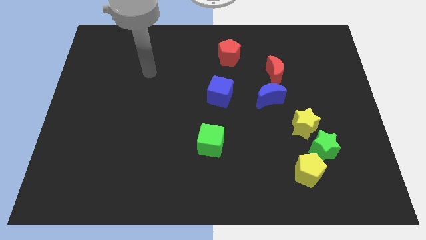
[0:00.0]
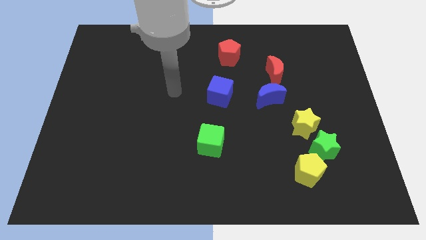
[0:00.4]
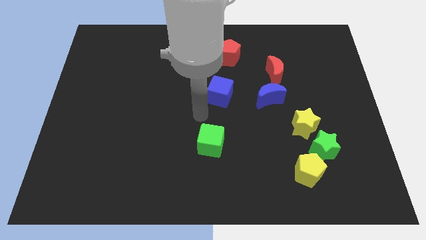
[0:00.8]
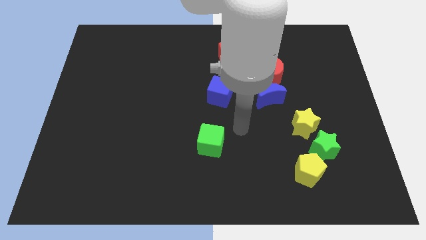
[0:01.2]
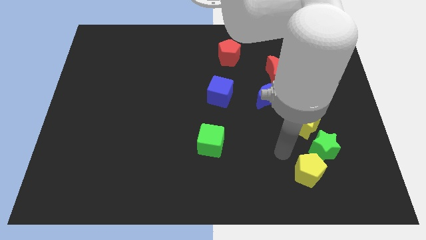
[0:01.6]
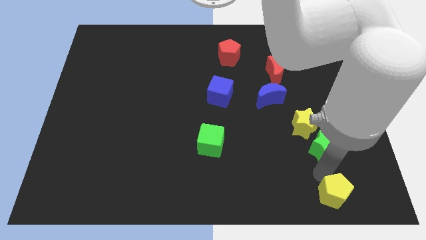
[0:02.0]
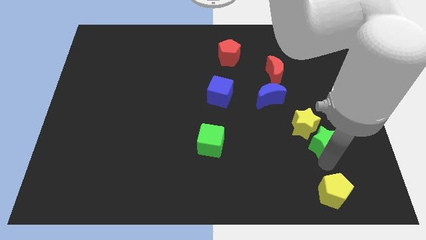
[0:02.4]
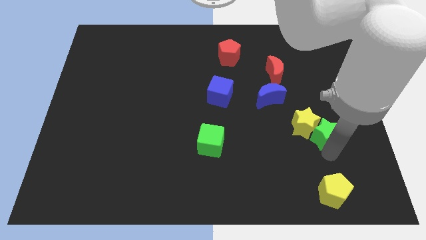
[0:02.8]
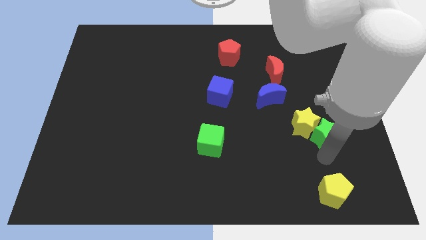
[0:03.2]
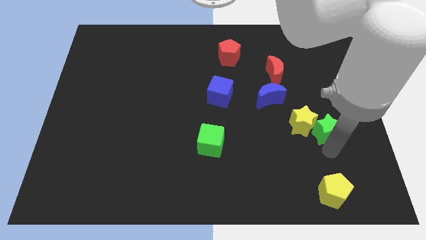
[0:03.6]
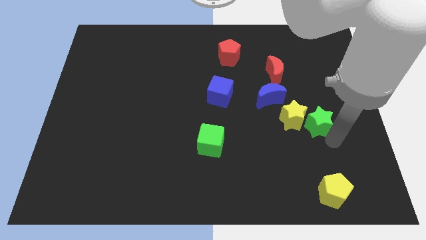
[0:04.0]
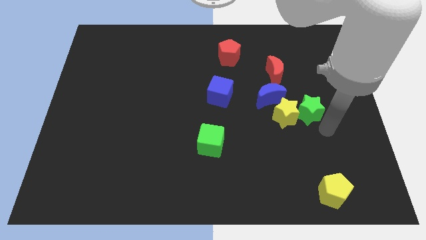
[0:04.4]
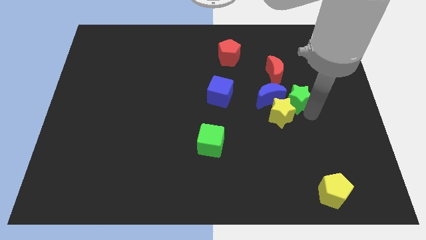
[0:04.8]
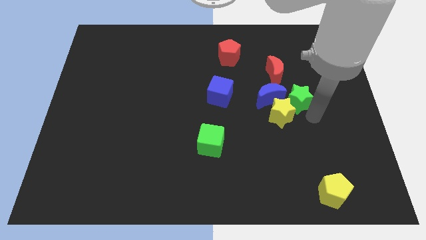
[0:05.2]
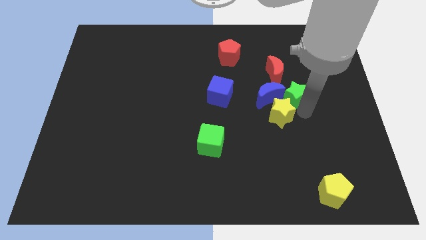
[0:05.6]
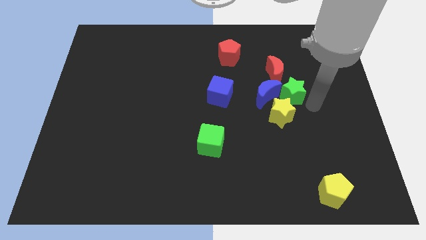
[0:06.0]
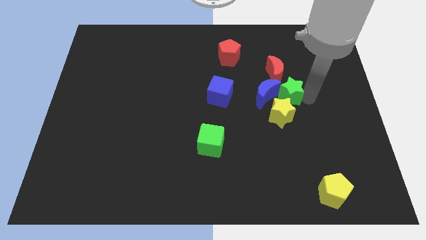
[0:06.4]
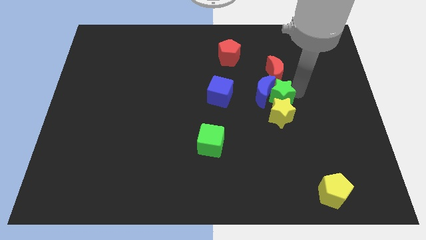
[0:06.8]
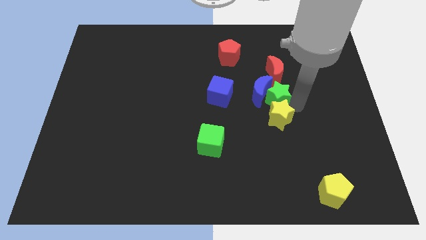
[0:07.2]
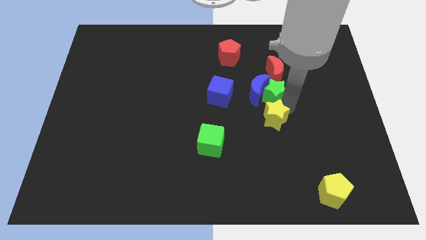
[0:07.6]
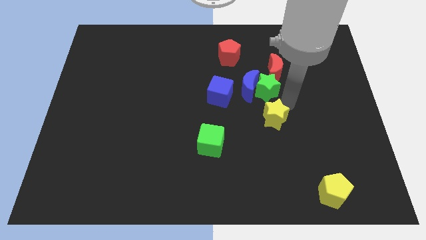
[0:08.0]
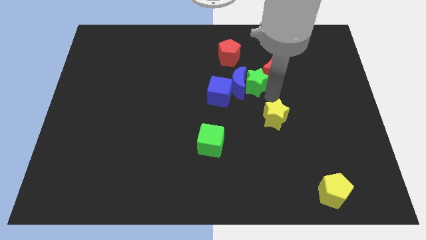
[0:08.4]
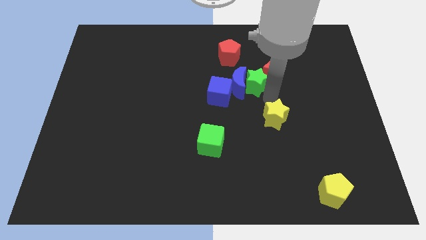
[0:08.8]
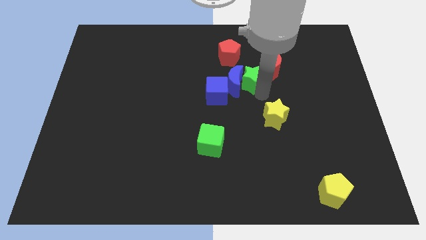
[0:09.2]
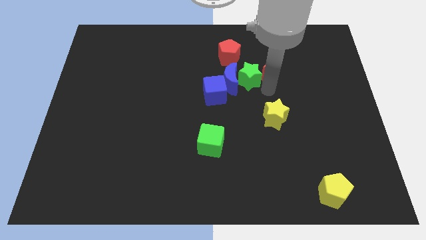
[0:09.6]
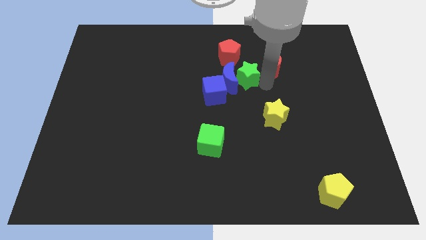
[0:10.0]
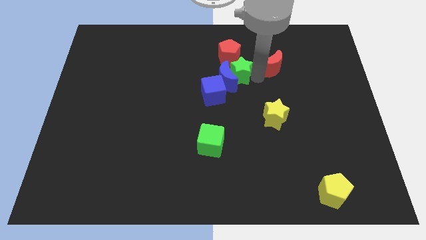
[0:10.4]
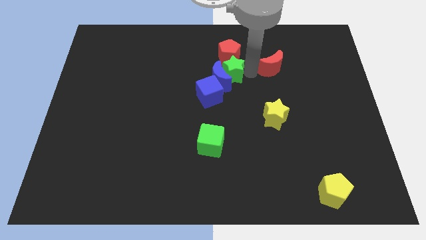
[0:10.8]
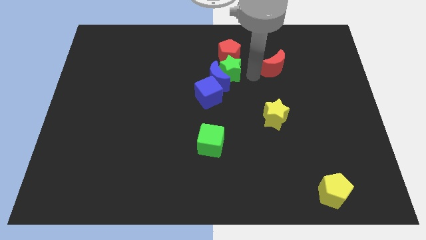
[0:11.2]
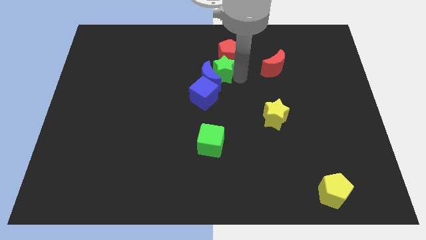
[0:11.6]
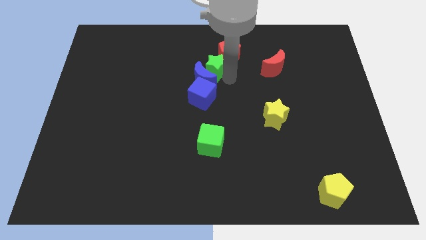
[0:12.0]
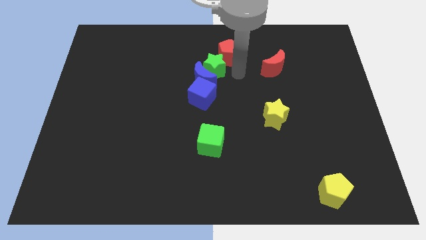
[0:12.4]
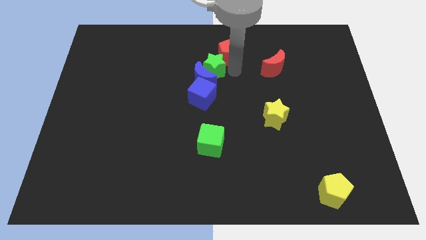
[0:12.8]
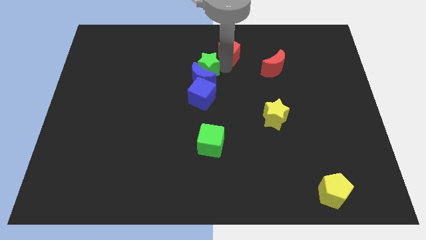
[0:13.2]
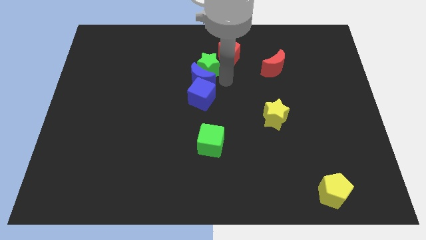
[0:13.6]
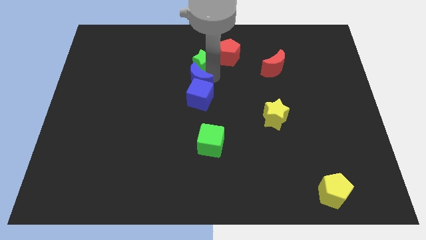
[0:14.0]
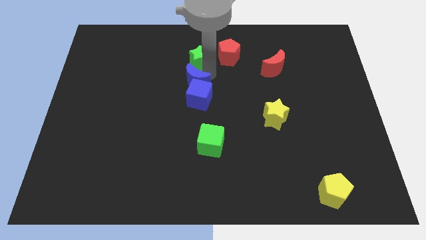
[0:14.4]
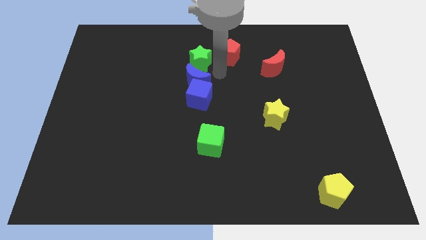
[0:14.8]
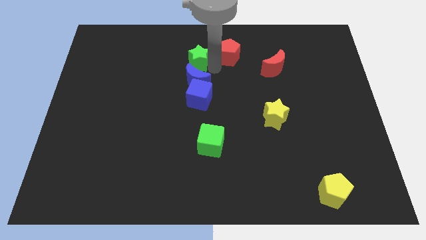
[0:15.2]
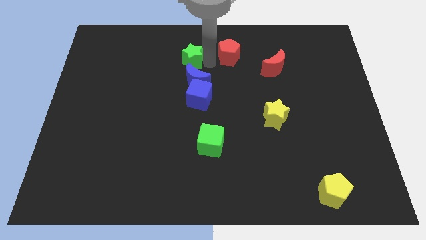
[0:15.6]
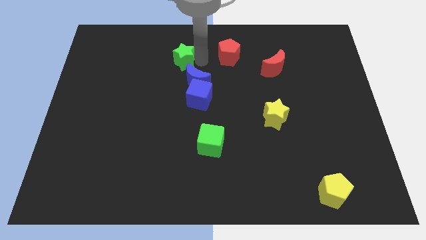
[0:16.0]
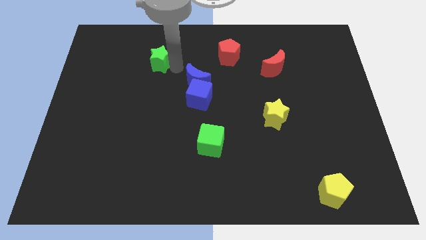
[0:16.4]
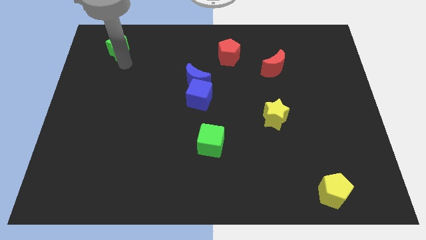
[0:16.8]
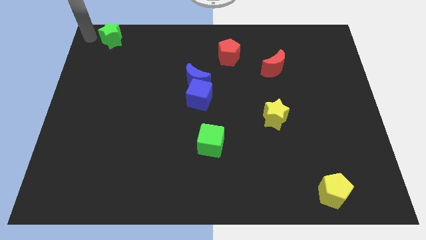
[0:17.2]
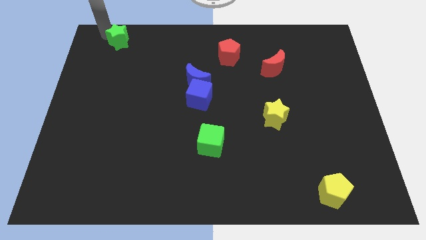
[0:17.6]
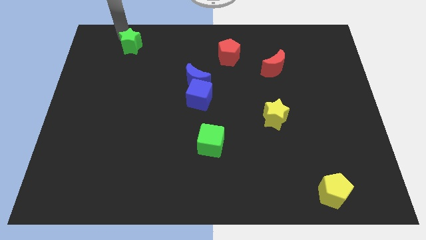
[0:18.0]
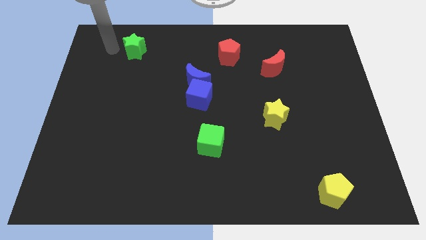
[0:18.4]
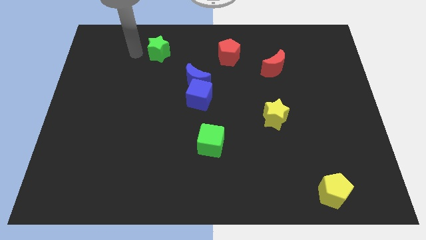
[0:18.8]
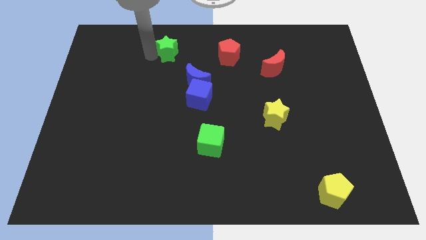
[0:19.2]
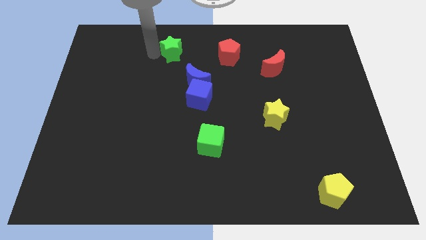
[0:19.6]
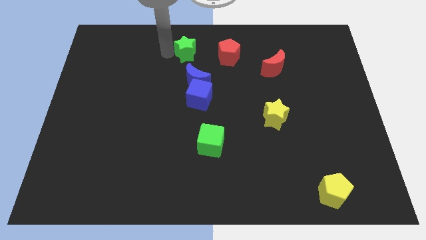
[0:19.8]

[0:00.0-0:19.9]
slide the green star to the top

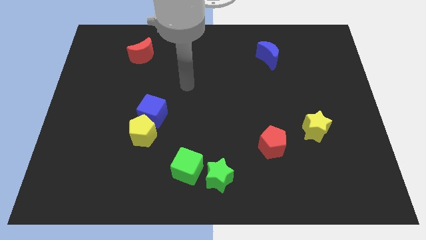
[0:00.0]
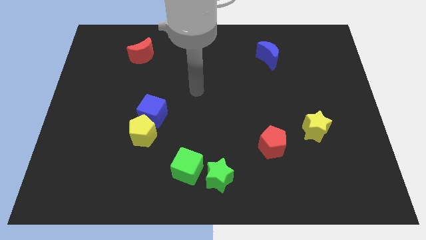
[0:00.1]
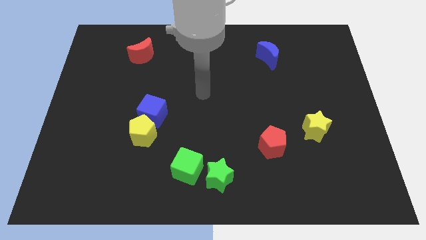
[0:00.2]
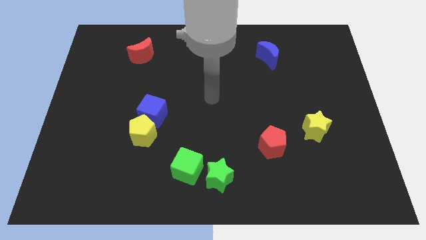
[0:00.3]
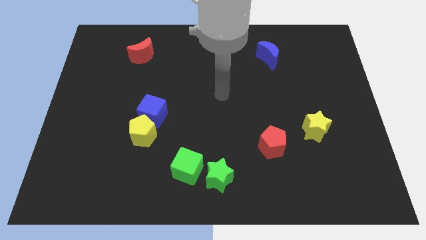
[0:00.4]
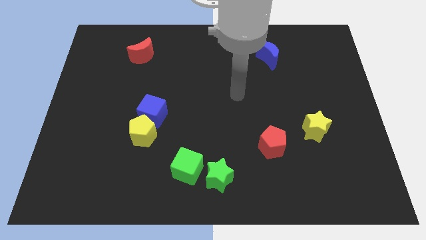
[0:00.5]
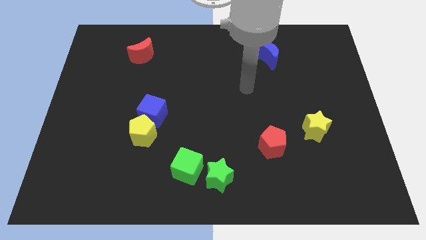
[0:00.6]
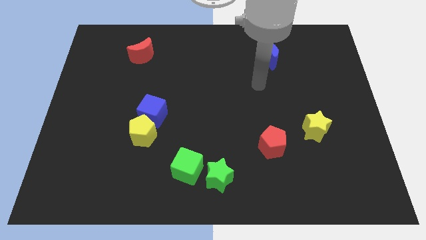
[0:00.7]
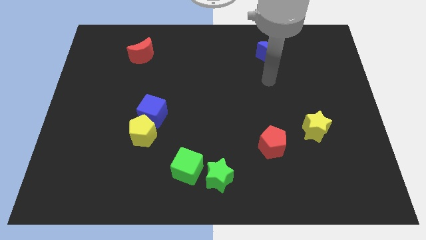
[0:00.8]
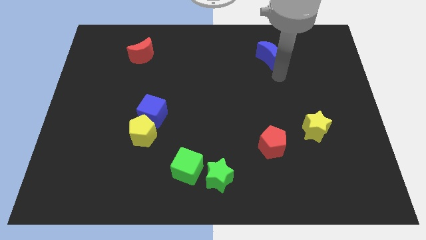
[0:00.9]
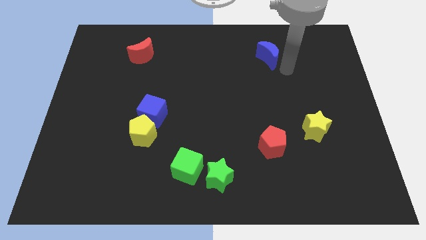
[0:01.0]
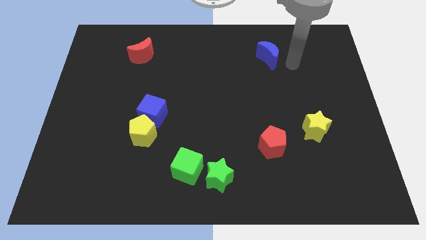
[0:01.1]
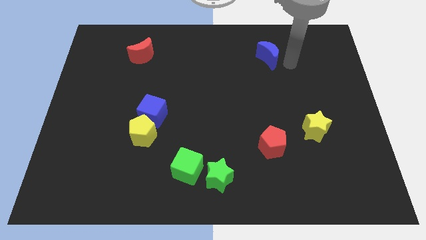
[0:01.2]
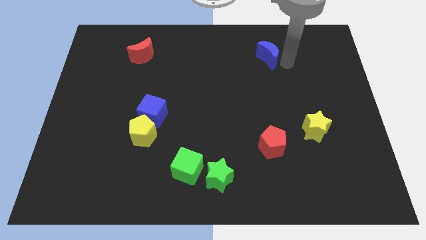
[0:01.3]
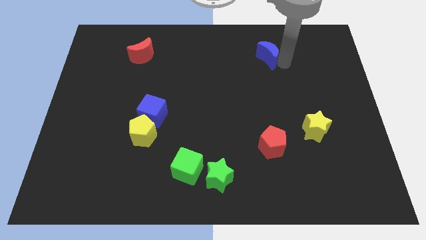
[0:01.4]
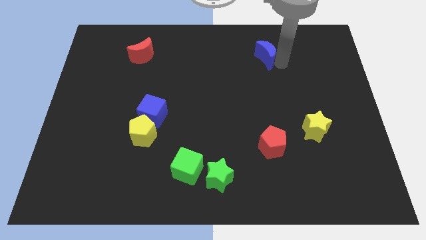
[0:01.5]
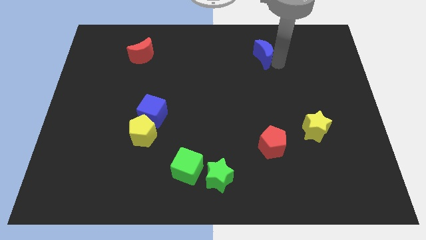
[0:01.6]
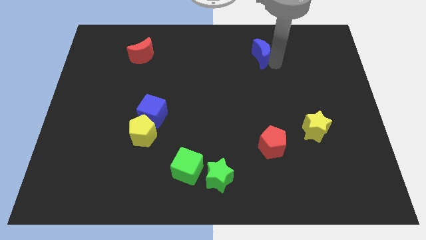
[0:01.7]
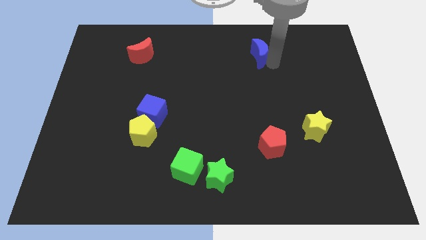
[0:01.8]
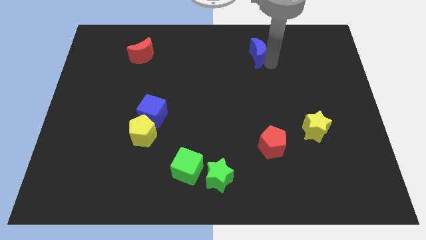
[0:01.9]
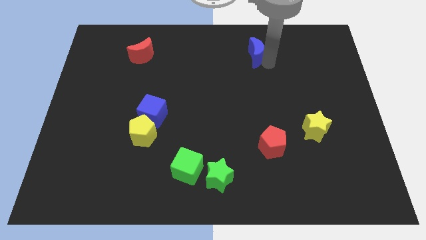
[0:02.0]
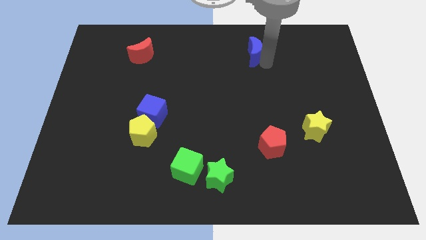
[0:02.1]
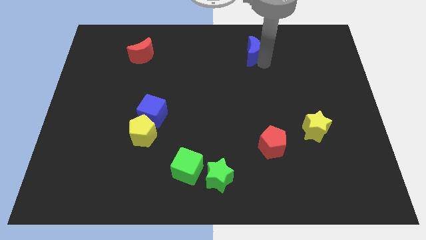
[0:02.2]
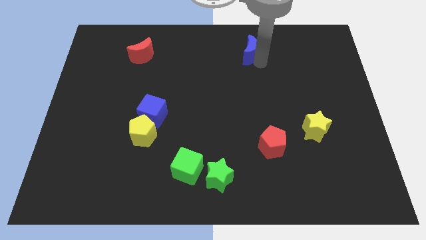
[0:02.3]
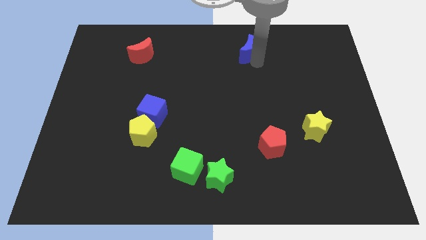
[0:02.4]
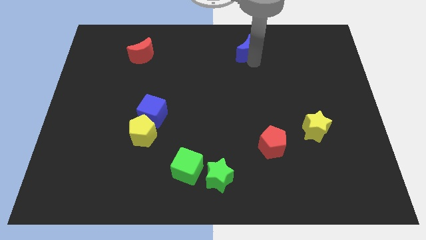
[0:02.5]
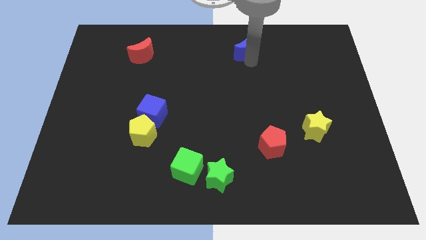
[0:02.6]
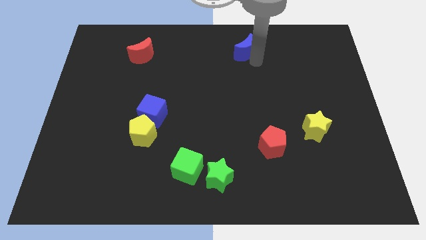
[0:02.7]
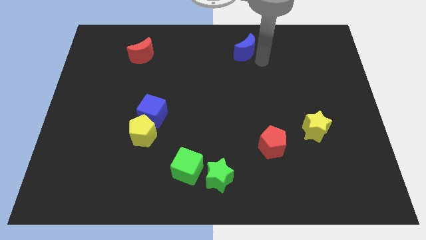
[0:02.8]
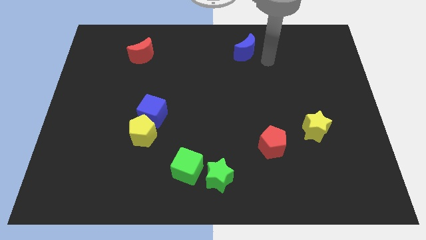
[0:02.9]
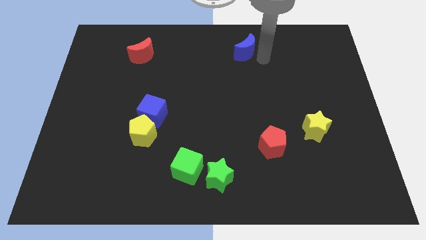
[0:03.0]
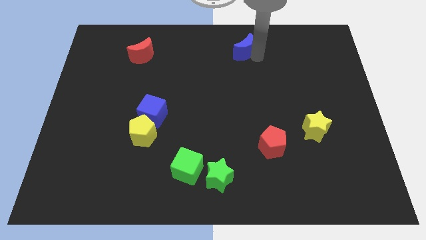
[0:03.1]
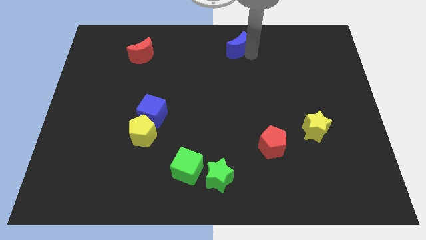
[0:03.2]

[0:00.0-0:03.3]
put the blue moon to the towards your base
